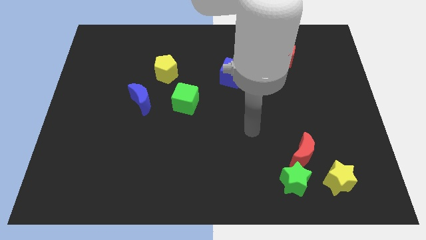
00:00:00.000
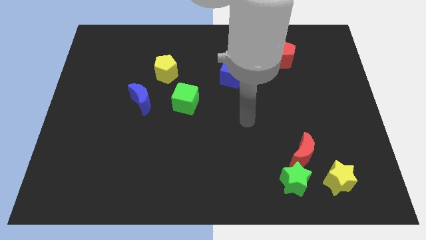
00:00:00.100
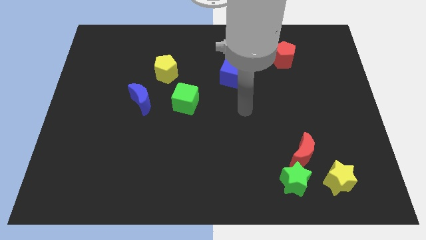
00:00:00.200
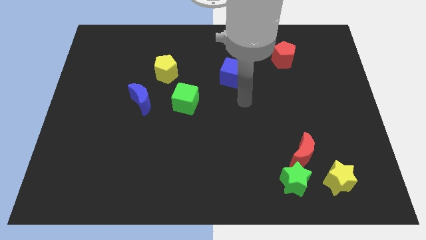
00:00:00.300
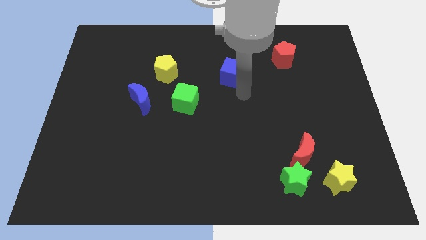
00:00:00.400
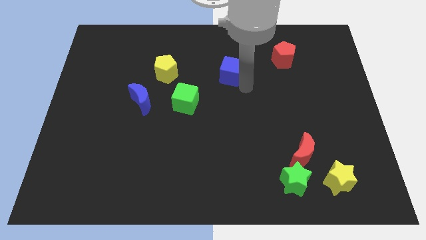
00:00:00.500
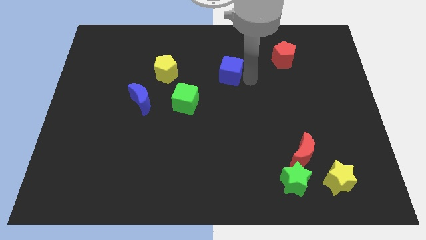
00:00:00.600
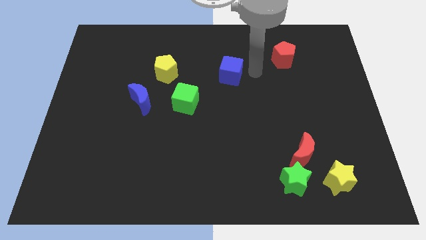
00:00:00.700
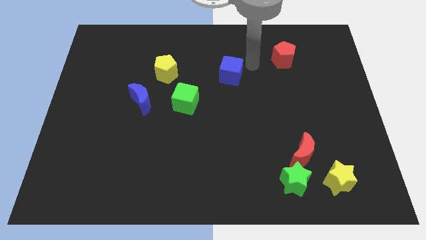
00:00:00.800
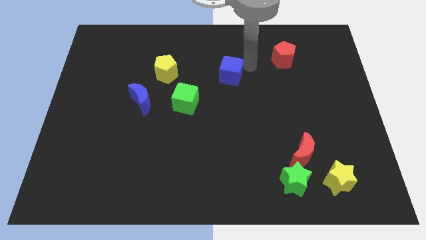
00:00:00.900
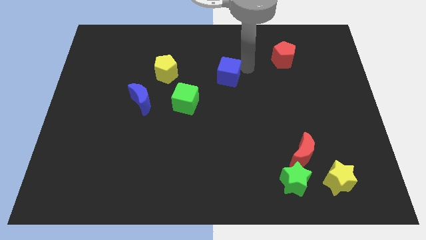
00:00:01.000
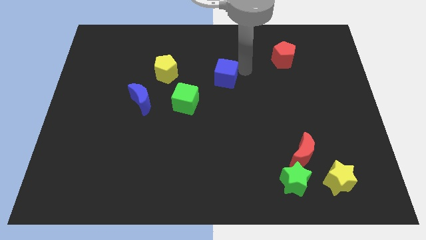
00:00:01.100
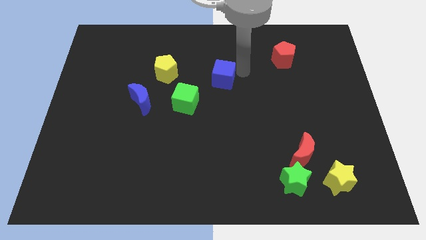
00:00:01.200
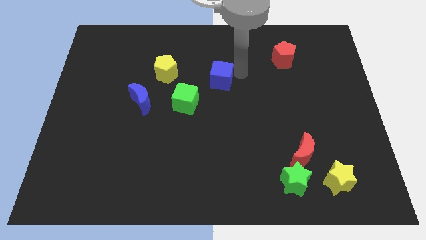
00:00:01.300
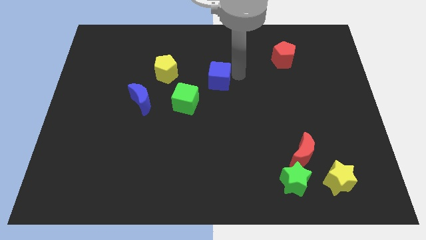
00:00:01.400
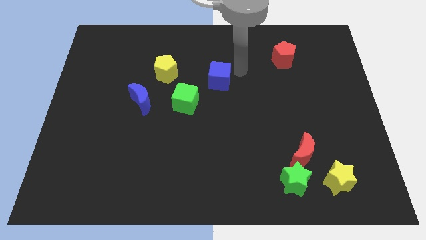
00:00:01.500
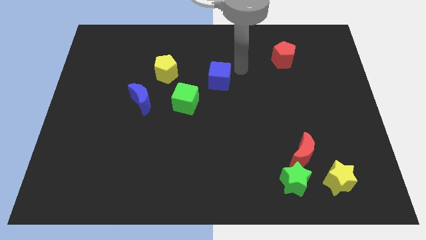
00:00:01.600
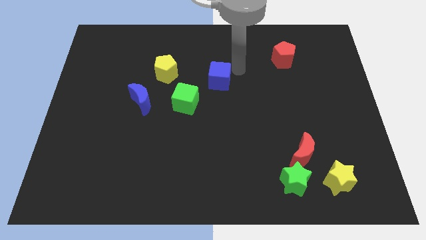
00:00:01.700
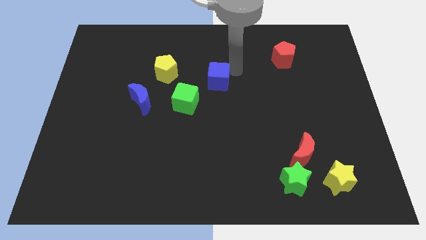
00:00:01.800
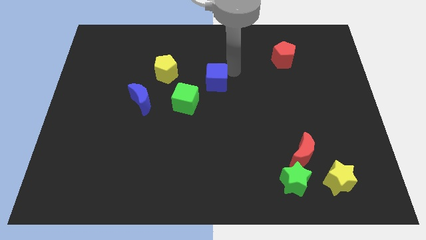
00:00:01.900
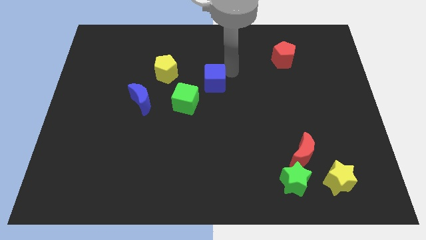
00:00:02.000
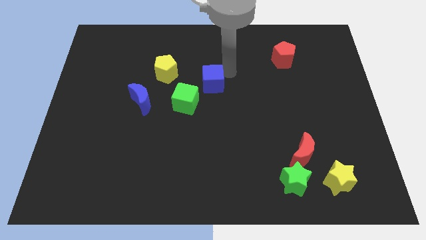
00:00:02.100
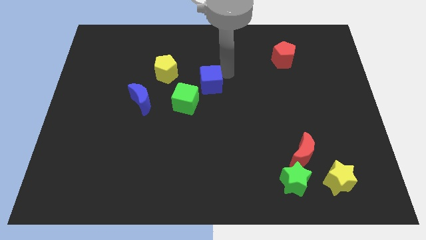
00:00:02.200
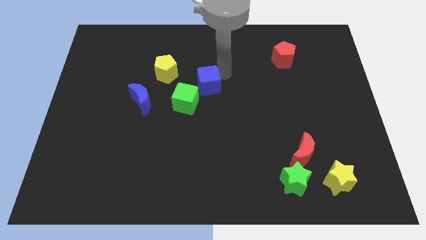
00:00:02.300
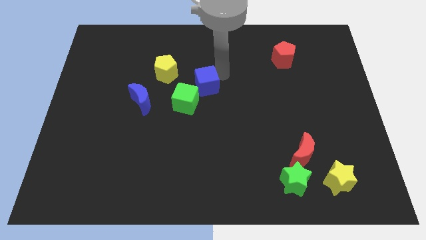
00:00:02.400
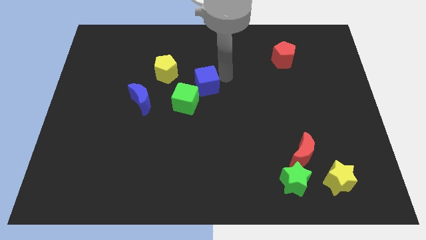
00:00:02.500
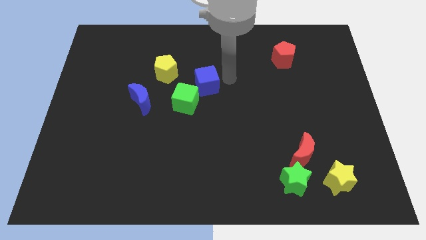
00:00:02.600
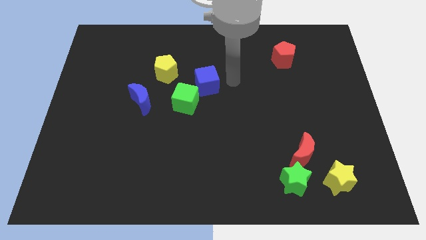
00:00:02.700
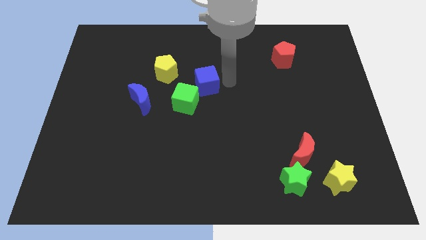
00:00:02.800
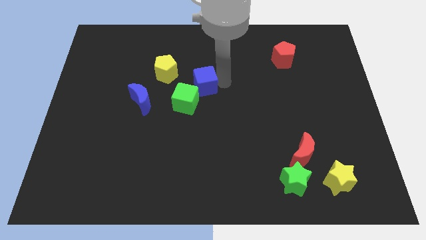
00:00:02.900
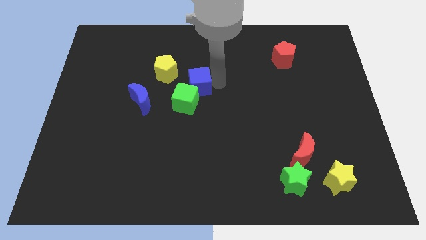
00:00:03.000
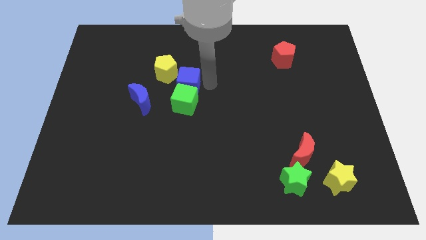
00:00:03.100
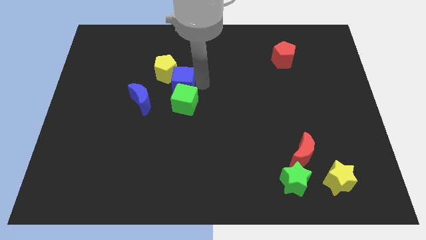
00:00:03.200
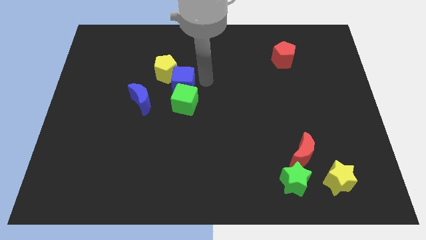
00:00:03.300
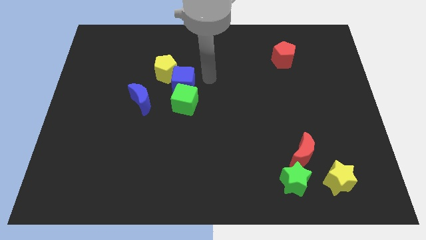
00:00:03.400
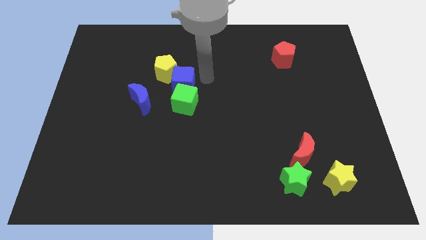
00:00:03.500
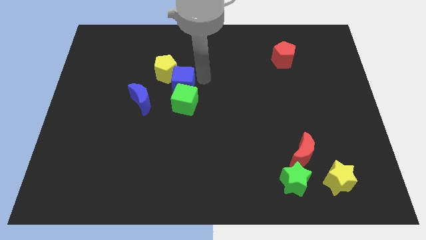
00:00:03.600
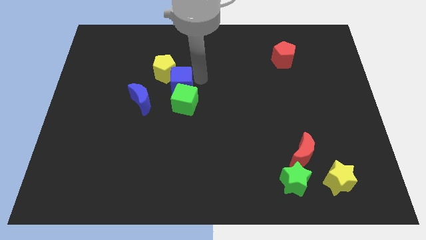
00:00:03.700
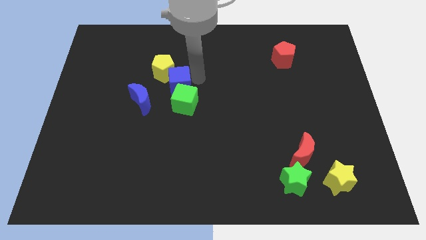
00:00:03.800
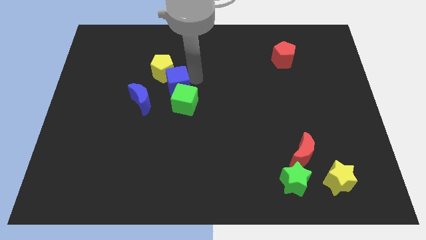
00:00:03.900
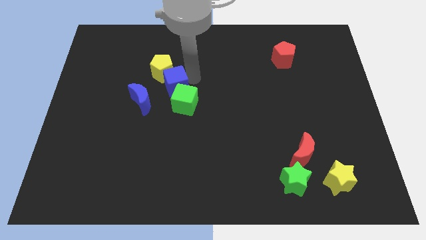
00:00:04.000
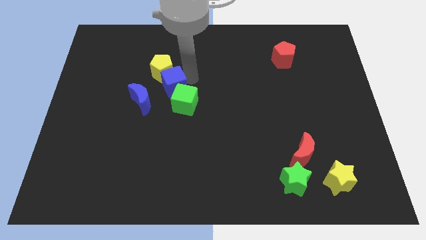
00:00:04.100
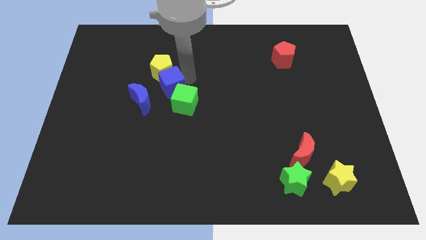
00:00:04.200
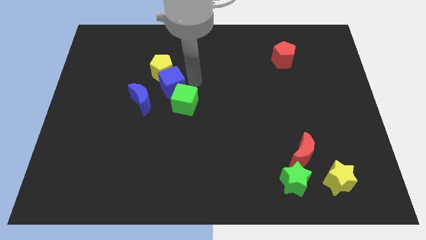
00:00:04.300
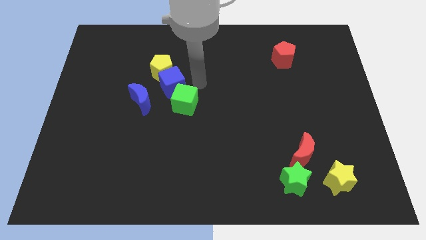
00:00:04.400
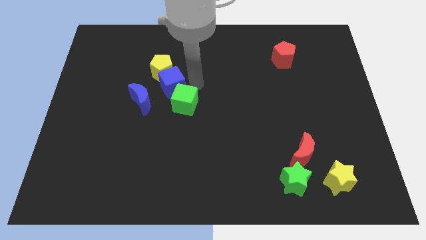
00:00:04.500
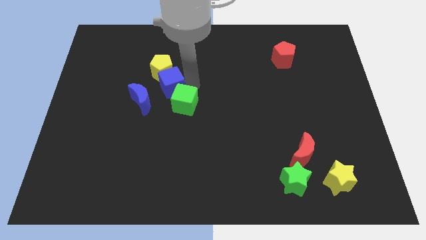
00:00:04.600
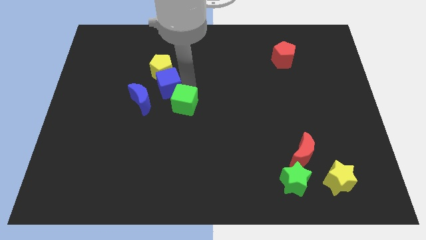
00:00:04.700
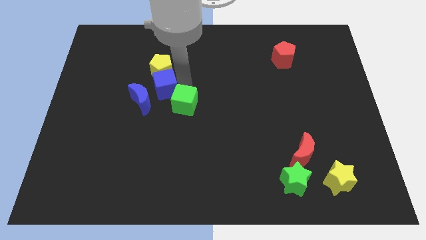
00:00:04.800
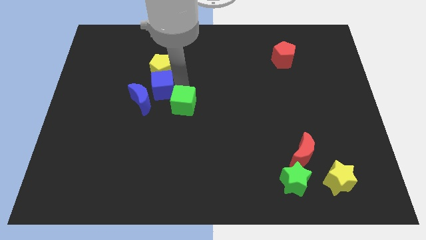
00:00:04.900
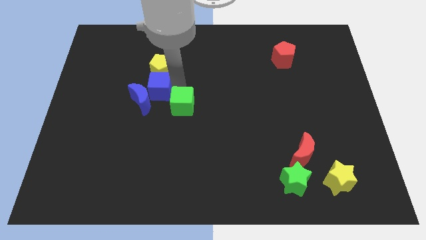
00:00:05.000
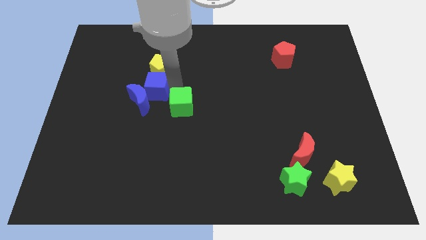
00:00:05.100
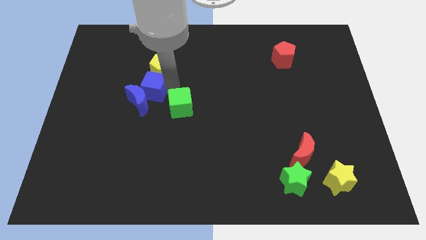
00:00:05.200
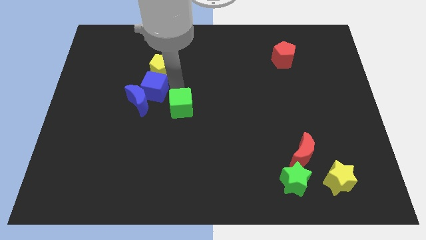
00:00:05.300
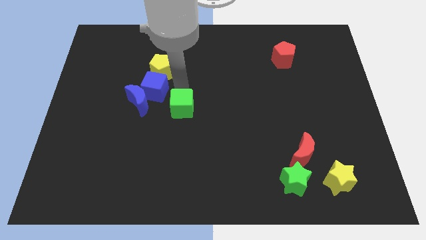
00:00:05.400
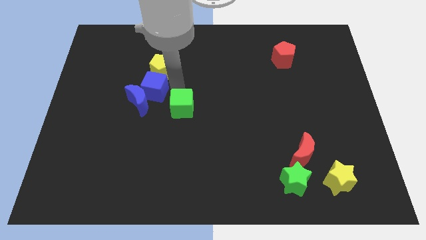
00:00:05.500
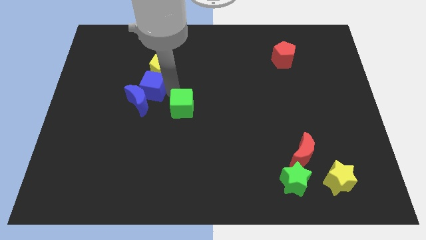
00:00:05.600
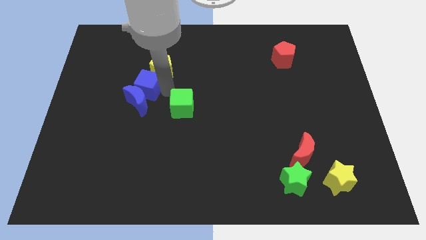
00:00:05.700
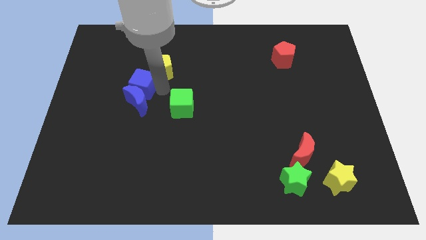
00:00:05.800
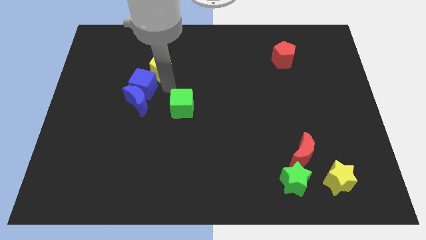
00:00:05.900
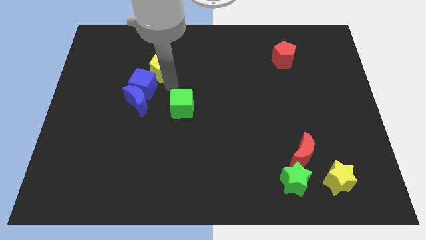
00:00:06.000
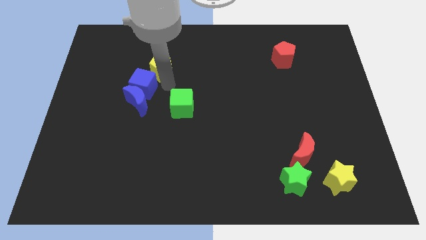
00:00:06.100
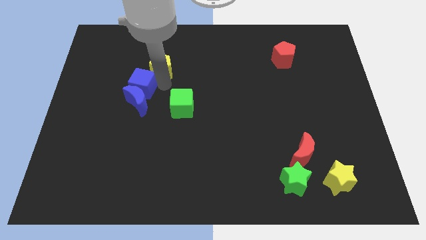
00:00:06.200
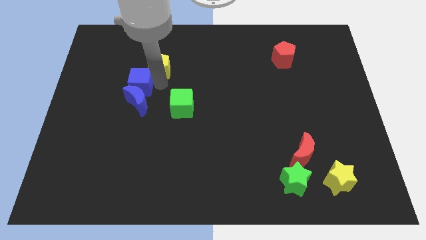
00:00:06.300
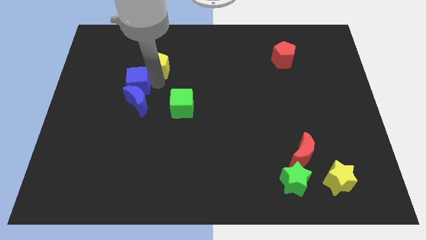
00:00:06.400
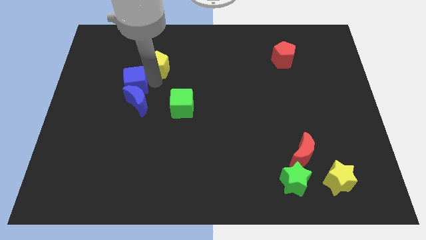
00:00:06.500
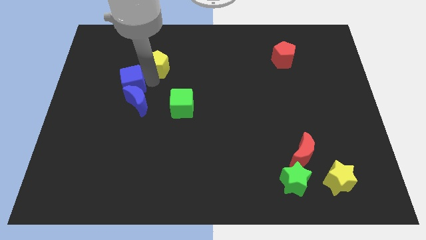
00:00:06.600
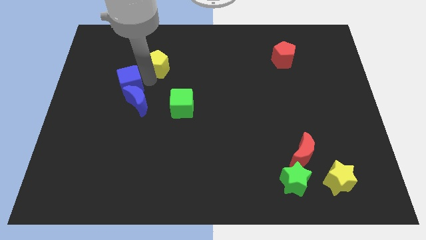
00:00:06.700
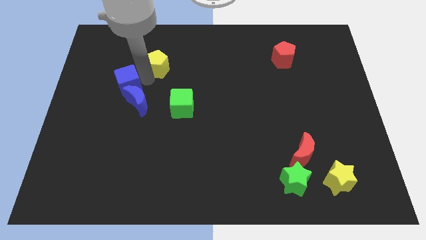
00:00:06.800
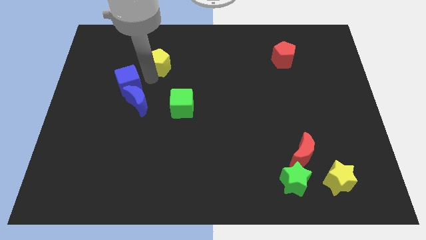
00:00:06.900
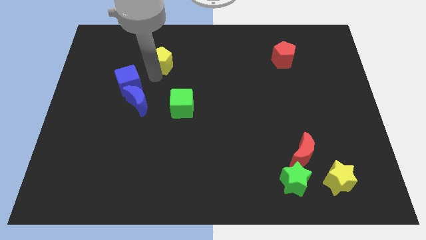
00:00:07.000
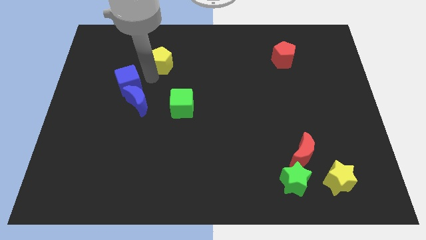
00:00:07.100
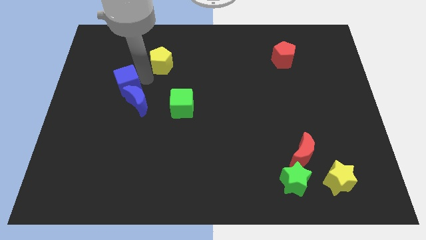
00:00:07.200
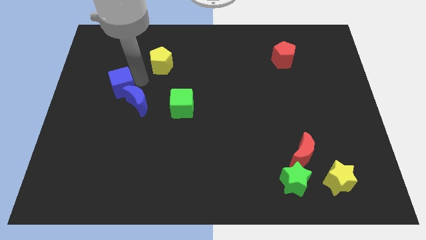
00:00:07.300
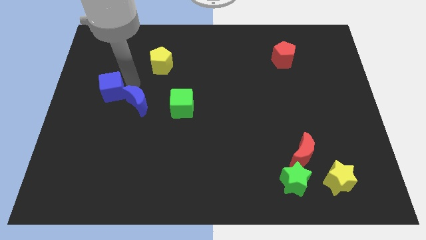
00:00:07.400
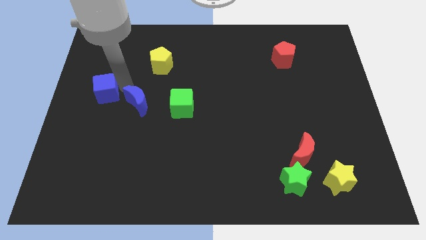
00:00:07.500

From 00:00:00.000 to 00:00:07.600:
push the blue cube to the left side of the board
